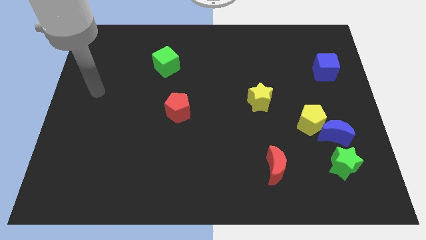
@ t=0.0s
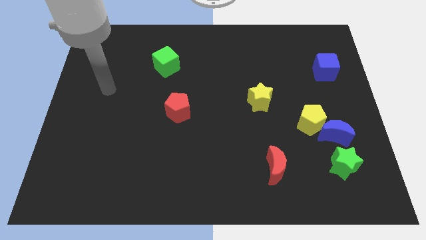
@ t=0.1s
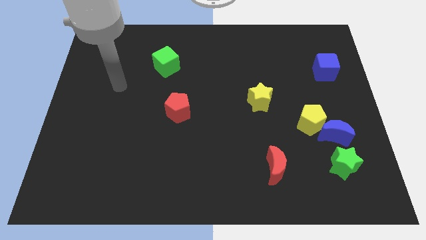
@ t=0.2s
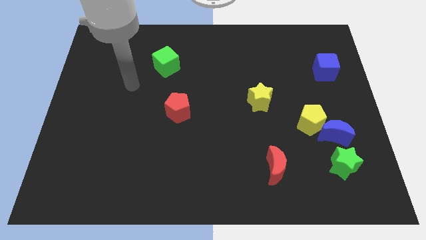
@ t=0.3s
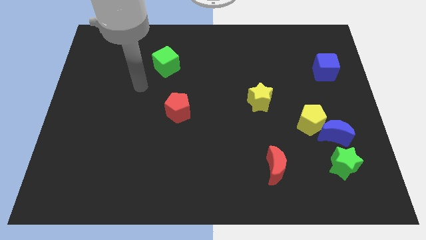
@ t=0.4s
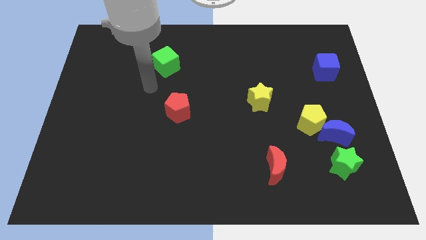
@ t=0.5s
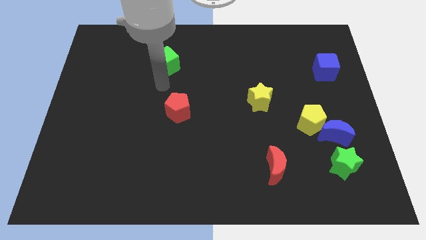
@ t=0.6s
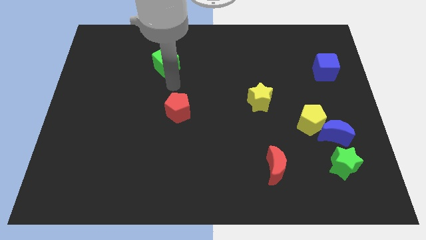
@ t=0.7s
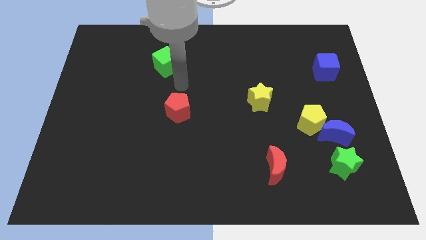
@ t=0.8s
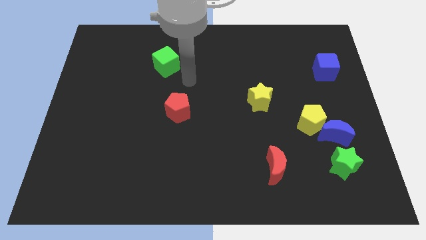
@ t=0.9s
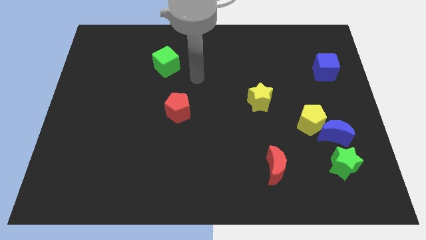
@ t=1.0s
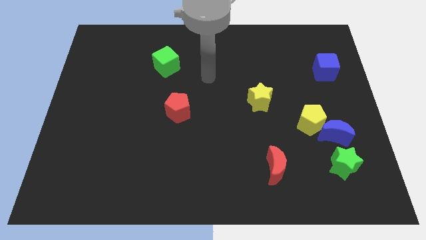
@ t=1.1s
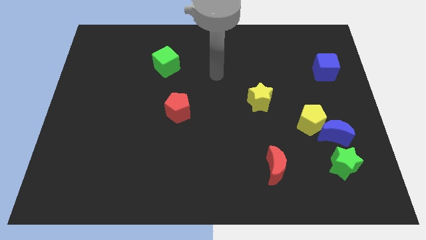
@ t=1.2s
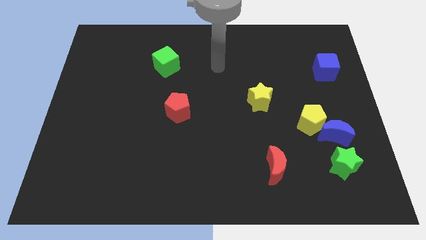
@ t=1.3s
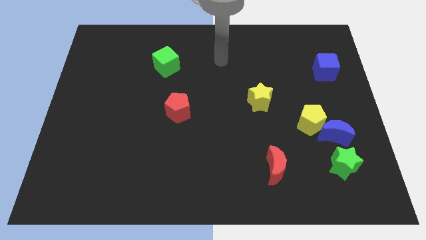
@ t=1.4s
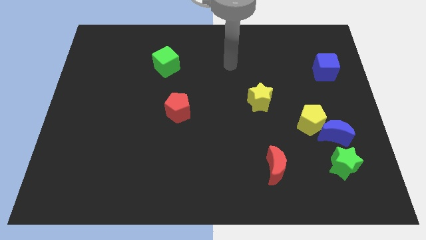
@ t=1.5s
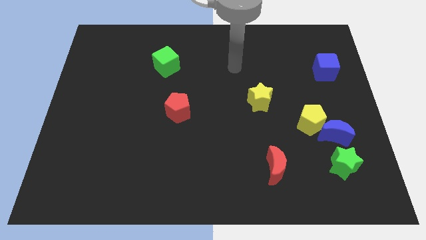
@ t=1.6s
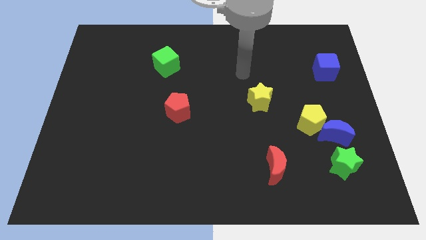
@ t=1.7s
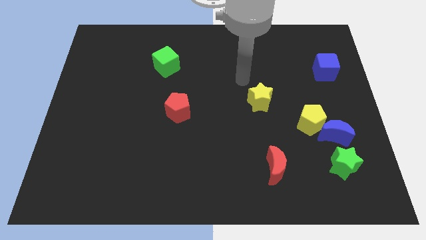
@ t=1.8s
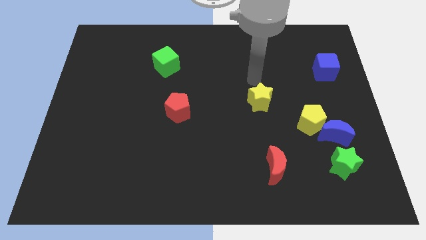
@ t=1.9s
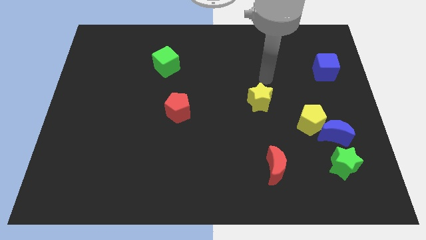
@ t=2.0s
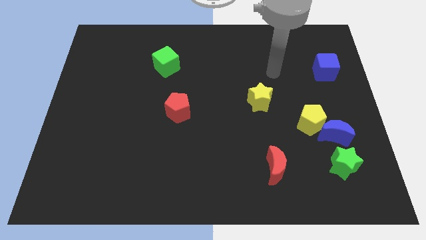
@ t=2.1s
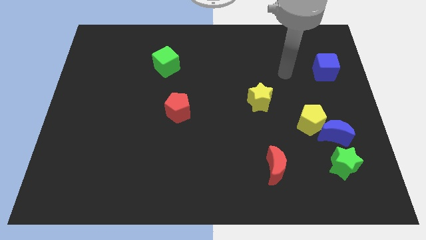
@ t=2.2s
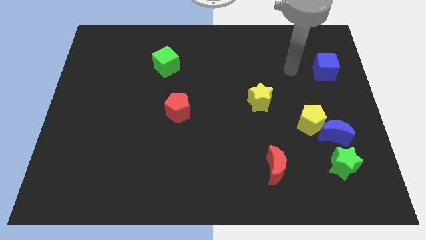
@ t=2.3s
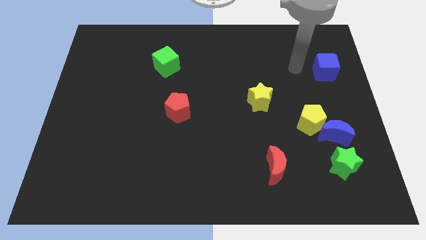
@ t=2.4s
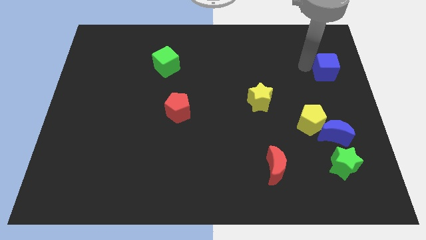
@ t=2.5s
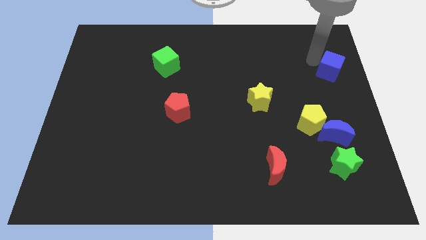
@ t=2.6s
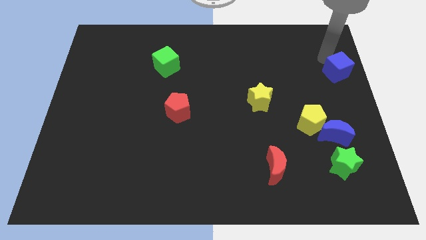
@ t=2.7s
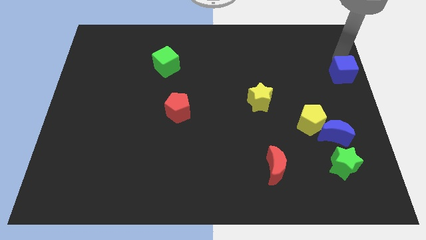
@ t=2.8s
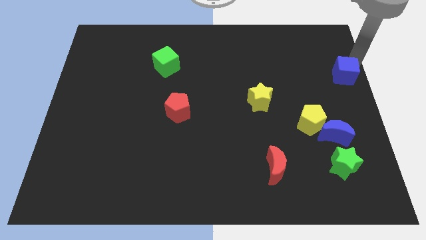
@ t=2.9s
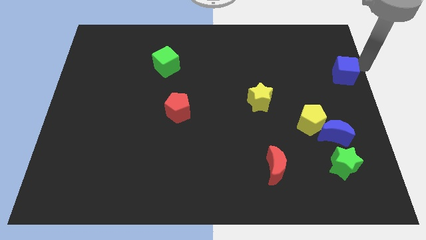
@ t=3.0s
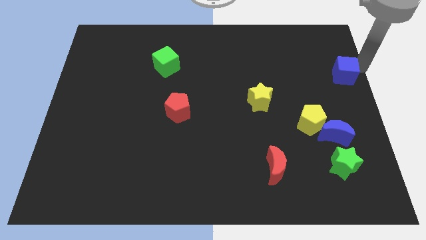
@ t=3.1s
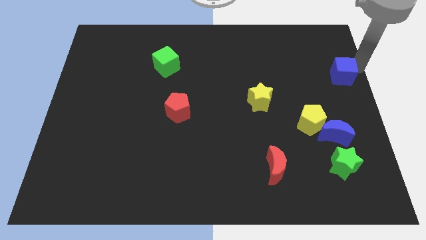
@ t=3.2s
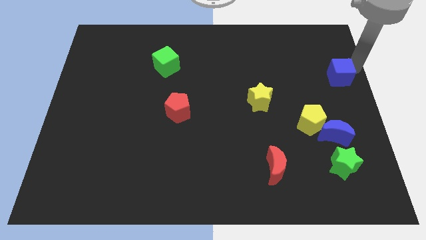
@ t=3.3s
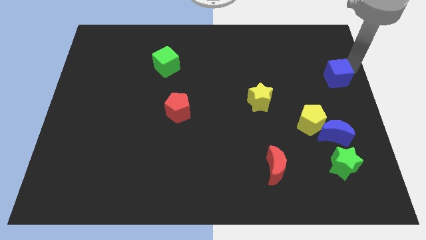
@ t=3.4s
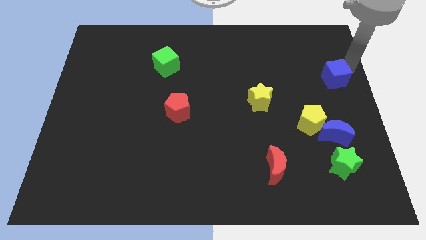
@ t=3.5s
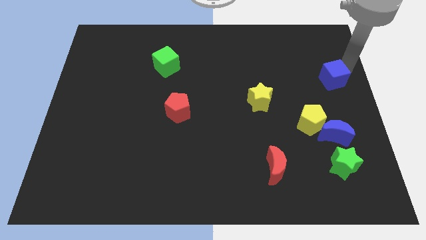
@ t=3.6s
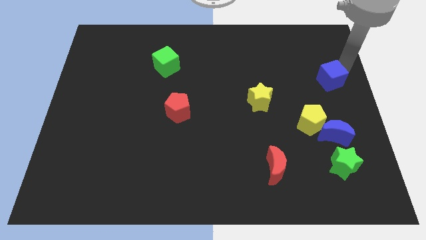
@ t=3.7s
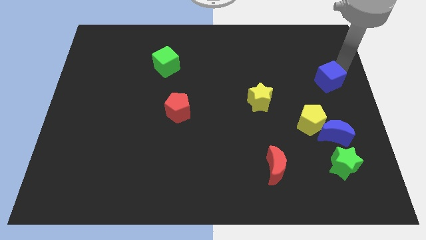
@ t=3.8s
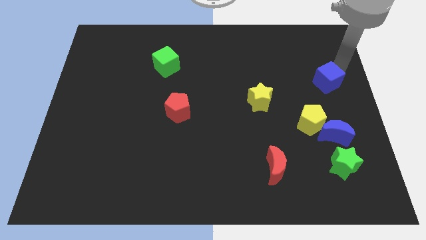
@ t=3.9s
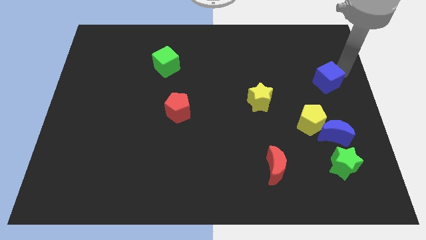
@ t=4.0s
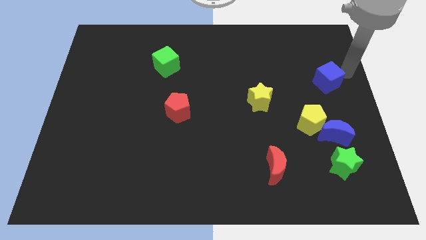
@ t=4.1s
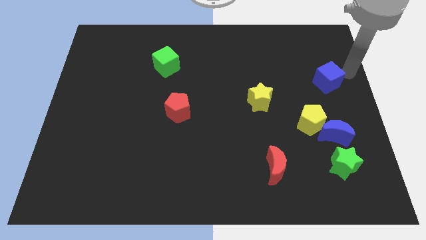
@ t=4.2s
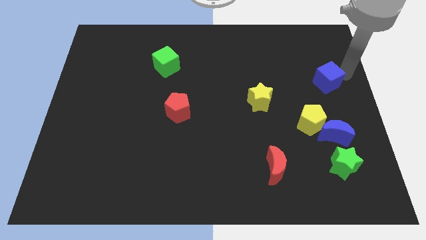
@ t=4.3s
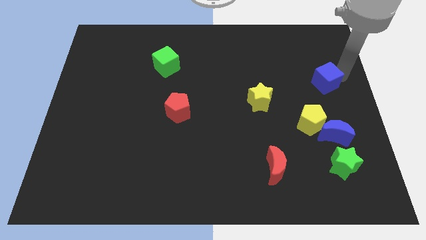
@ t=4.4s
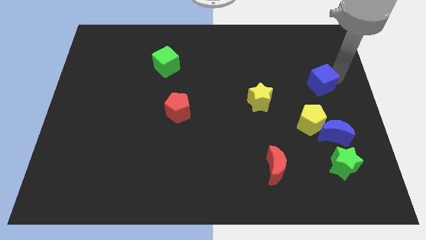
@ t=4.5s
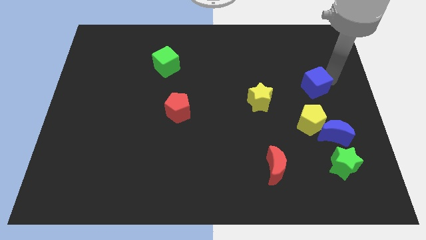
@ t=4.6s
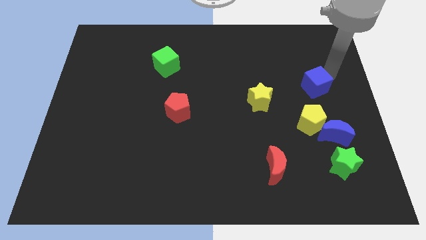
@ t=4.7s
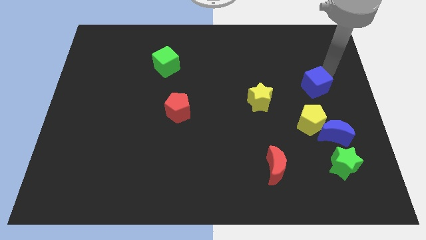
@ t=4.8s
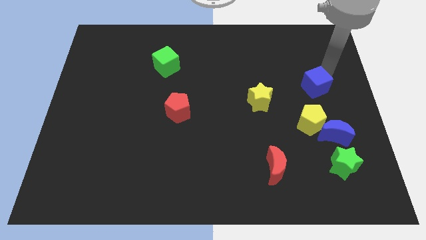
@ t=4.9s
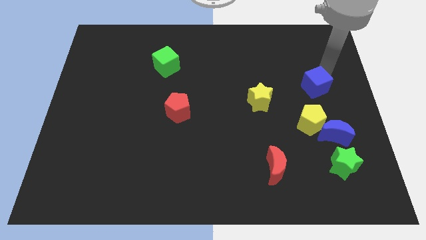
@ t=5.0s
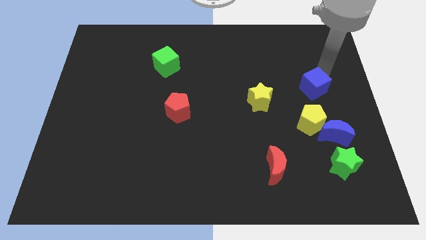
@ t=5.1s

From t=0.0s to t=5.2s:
move the blue cube right of the yellow star

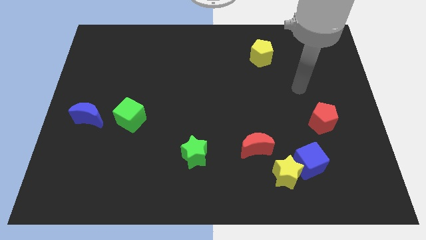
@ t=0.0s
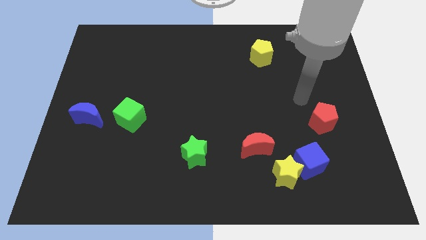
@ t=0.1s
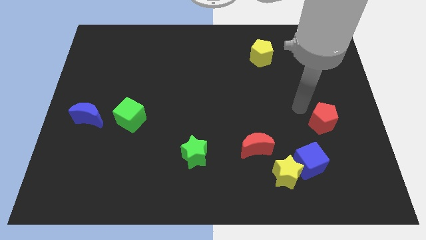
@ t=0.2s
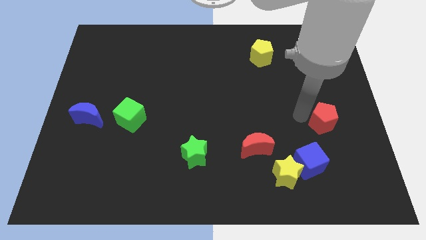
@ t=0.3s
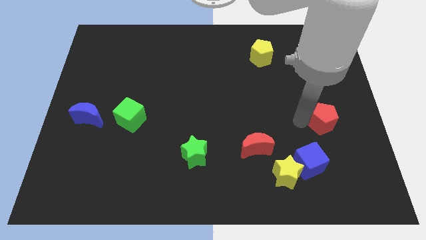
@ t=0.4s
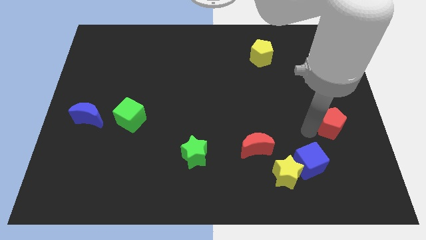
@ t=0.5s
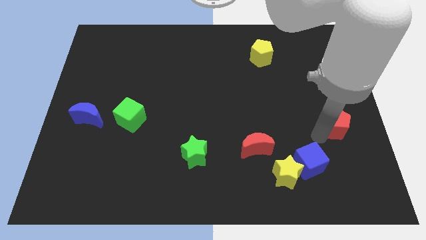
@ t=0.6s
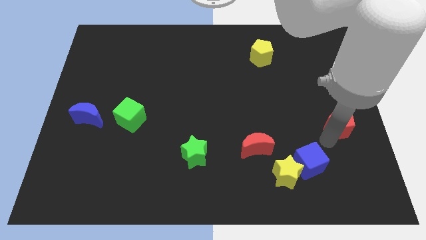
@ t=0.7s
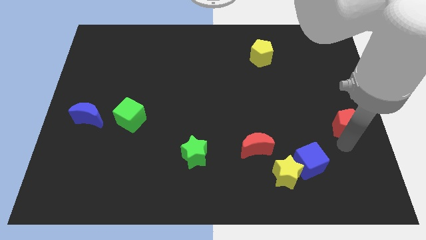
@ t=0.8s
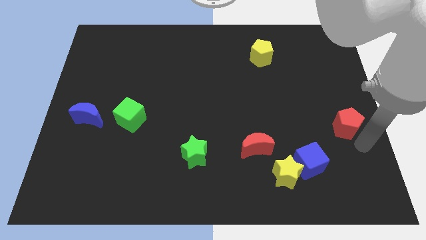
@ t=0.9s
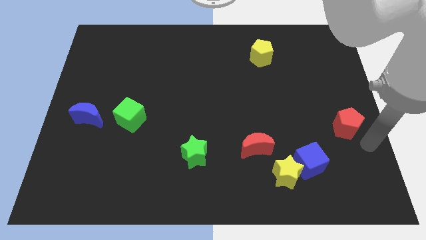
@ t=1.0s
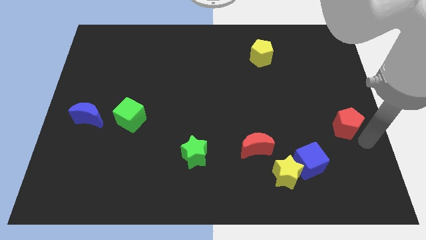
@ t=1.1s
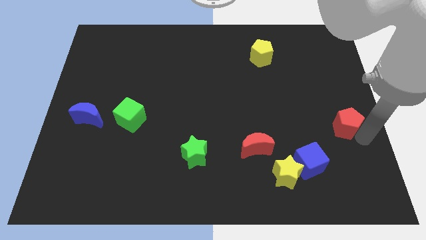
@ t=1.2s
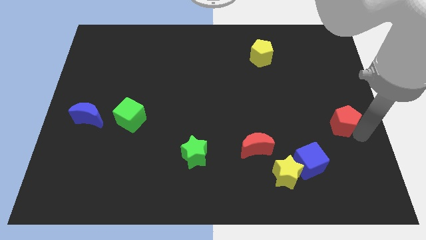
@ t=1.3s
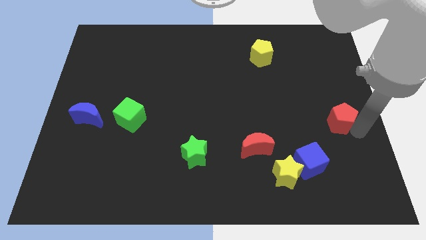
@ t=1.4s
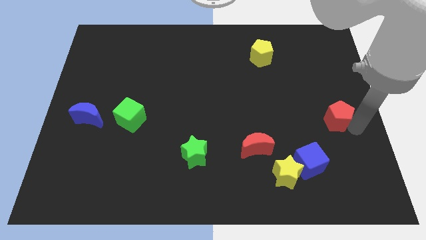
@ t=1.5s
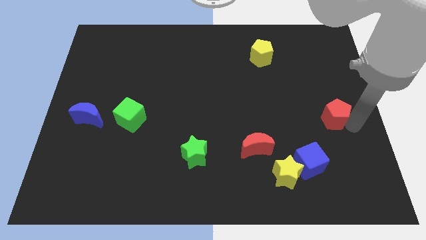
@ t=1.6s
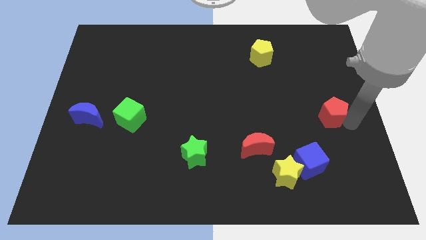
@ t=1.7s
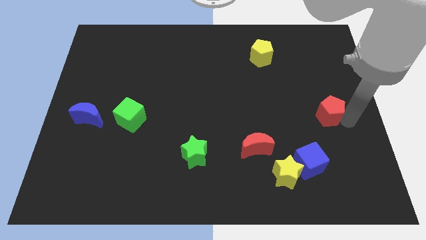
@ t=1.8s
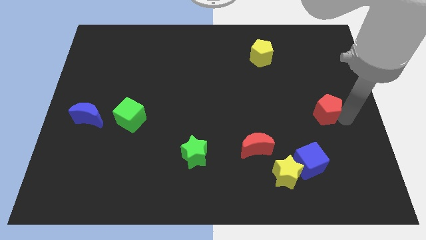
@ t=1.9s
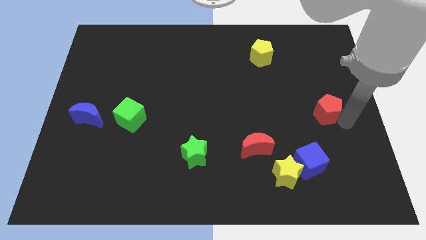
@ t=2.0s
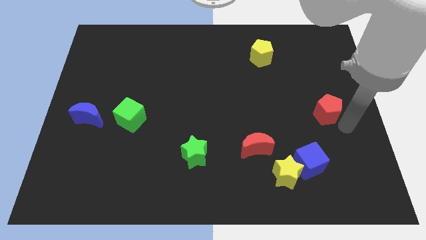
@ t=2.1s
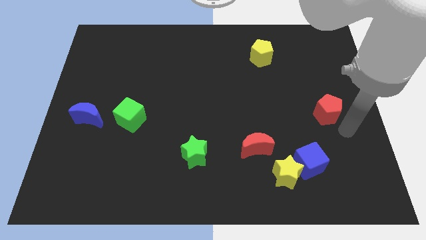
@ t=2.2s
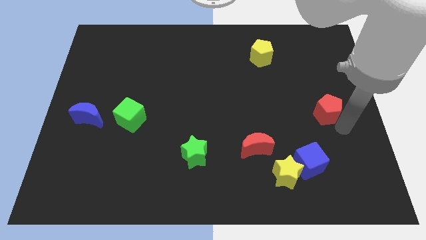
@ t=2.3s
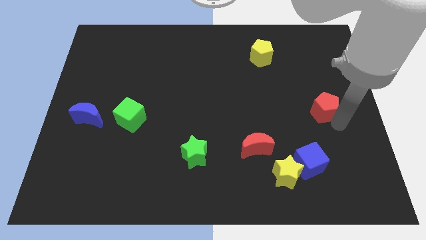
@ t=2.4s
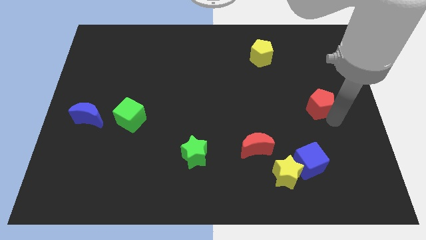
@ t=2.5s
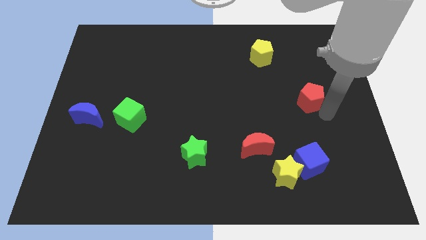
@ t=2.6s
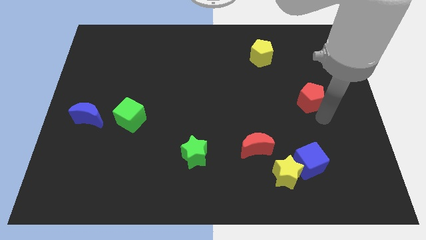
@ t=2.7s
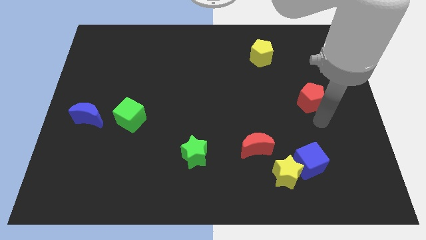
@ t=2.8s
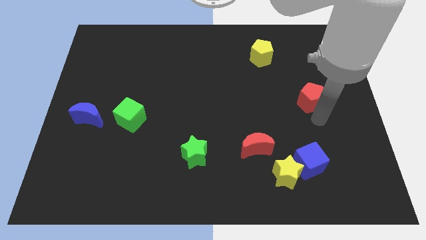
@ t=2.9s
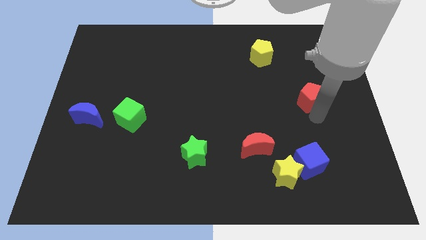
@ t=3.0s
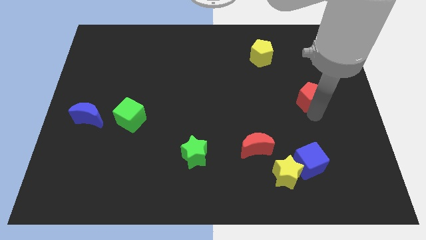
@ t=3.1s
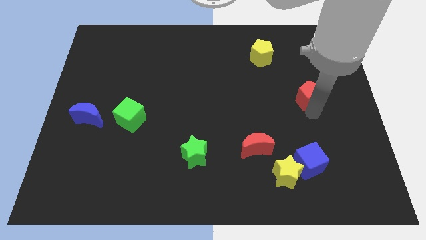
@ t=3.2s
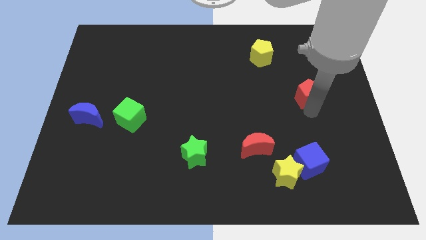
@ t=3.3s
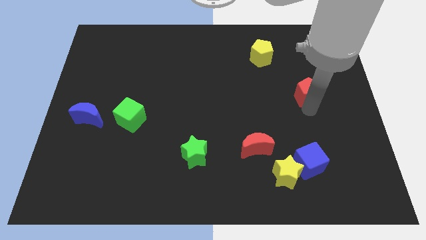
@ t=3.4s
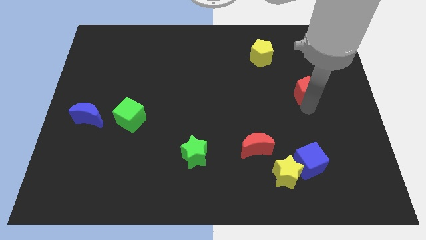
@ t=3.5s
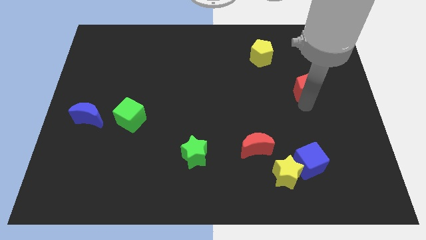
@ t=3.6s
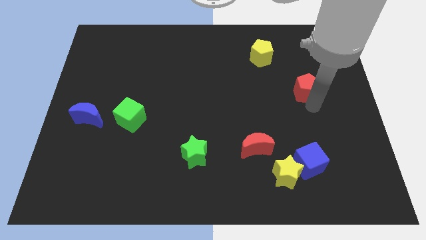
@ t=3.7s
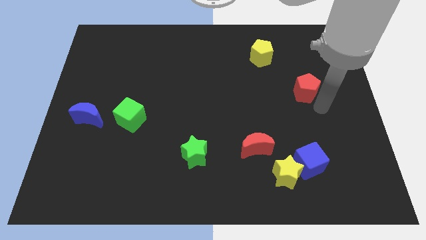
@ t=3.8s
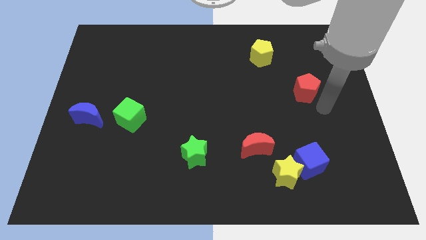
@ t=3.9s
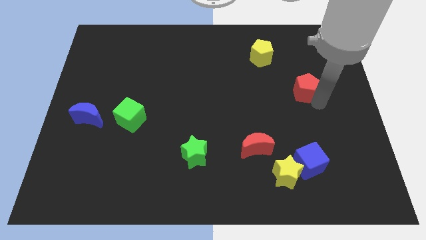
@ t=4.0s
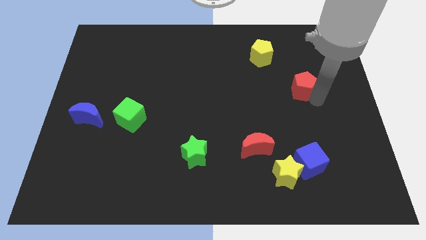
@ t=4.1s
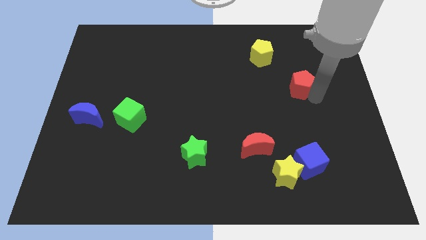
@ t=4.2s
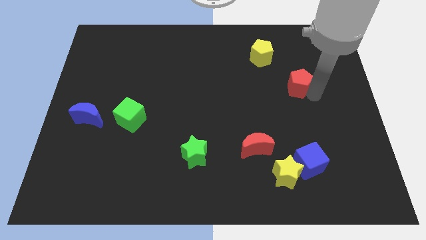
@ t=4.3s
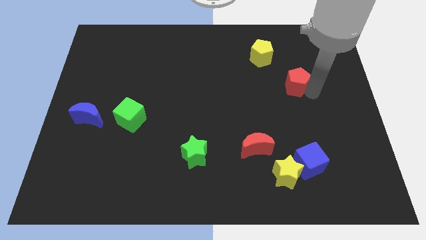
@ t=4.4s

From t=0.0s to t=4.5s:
push the red pentagon diagonally down and to the right of the yellow pentagon
